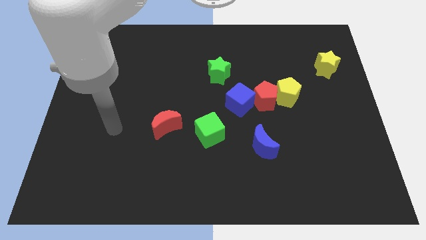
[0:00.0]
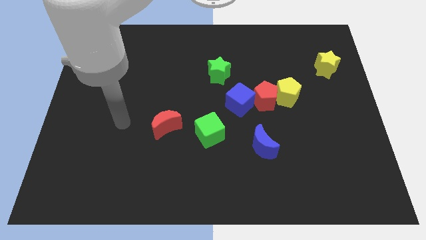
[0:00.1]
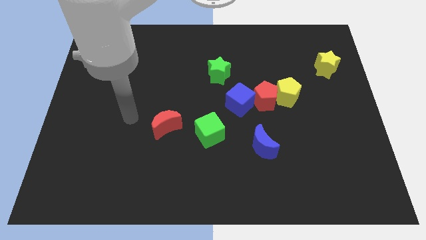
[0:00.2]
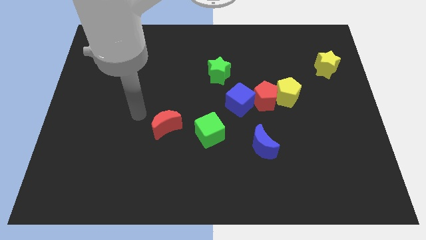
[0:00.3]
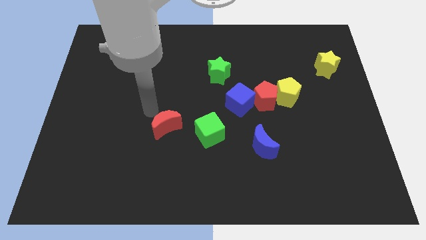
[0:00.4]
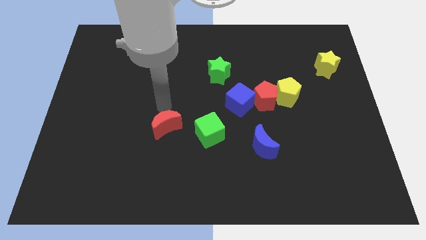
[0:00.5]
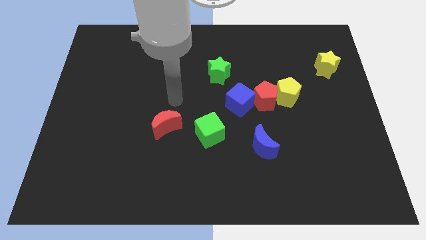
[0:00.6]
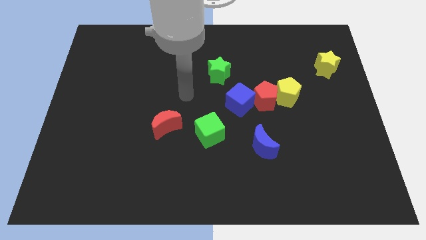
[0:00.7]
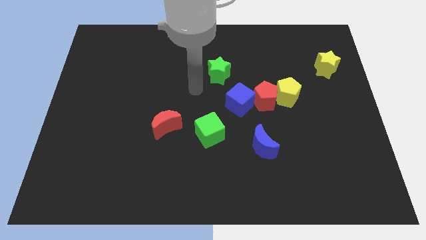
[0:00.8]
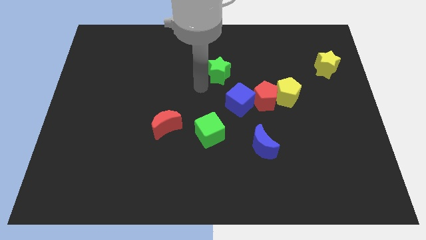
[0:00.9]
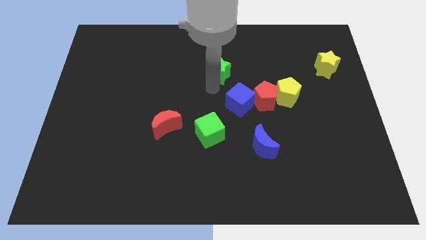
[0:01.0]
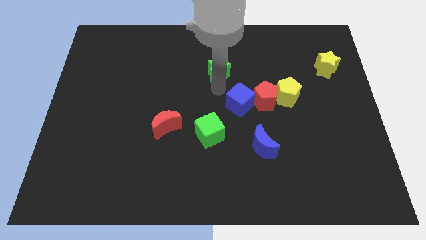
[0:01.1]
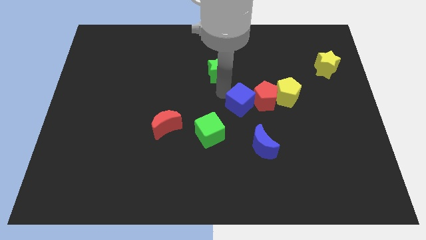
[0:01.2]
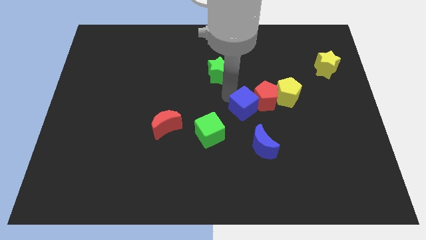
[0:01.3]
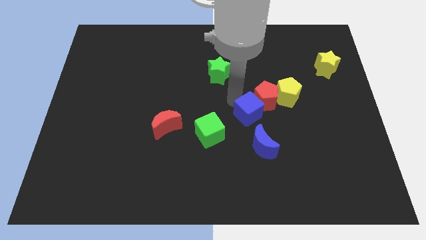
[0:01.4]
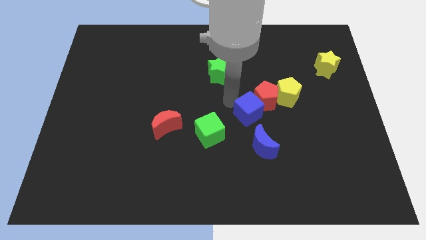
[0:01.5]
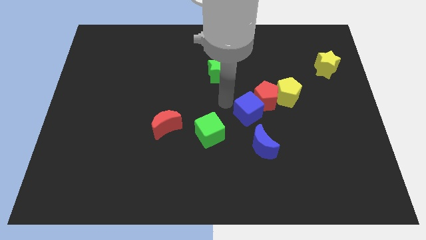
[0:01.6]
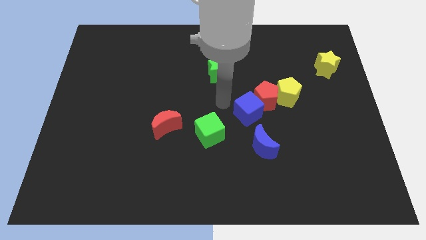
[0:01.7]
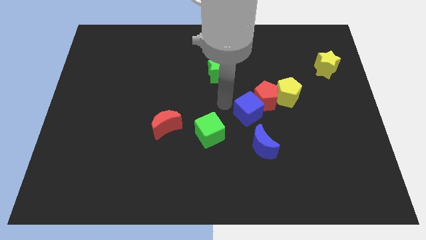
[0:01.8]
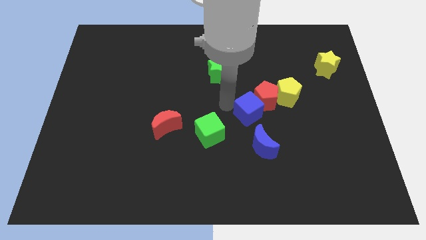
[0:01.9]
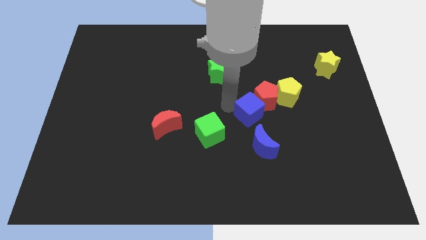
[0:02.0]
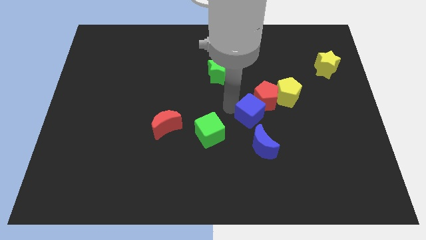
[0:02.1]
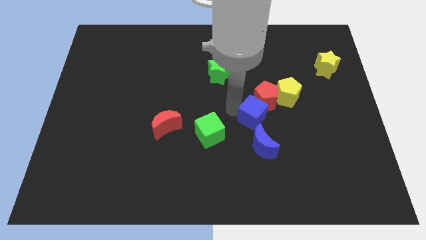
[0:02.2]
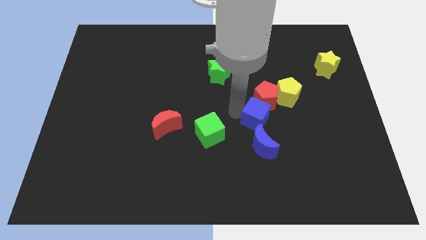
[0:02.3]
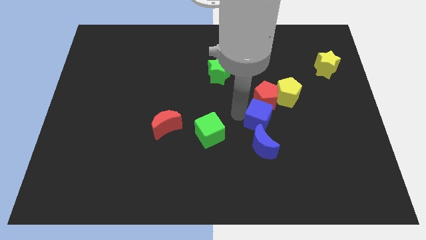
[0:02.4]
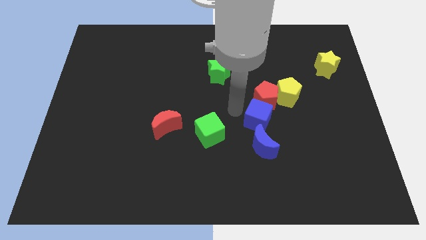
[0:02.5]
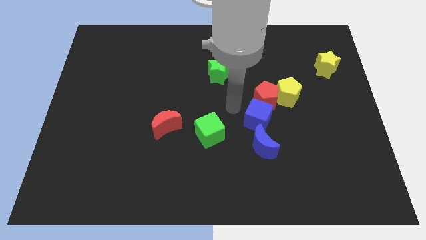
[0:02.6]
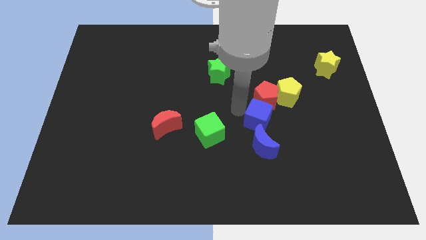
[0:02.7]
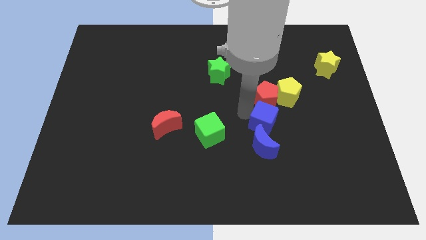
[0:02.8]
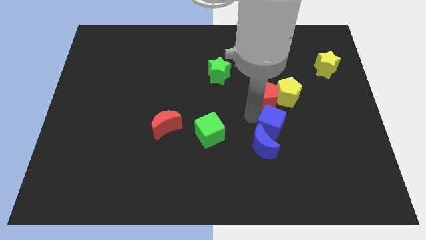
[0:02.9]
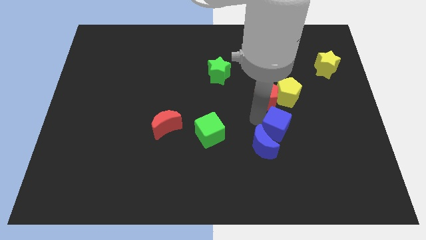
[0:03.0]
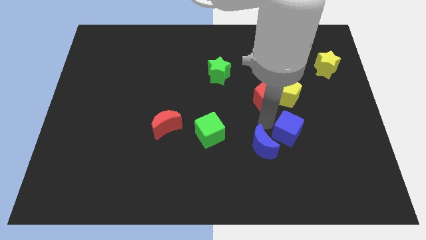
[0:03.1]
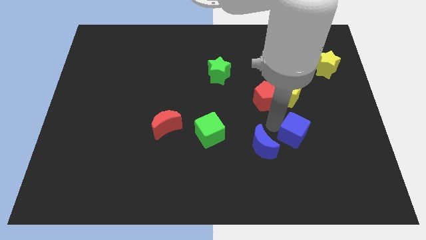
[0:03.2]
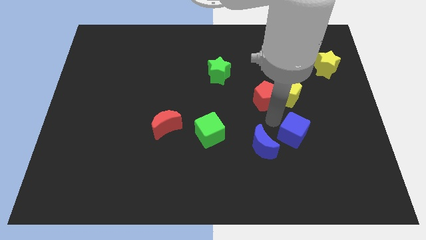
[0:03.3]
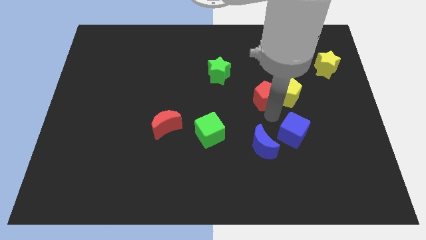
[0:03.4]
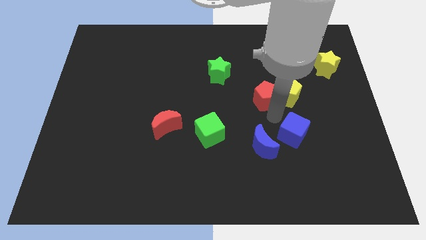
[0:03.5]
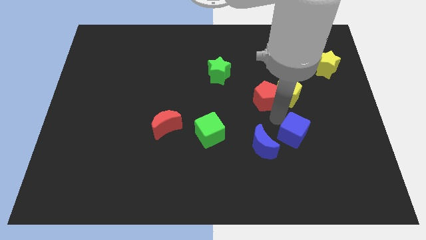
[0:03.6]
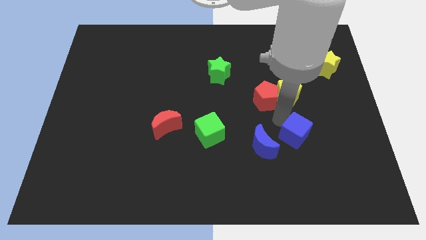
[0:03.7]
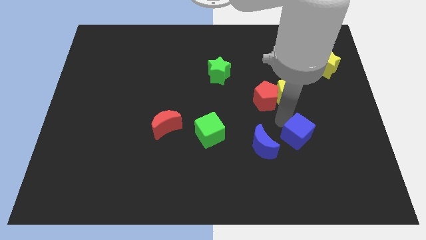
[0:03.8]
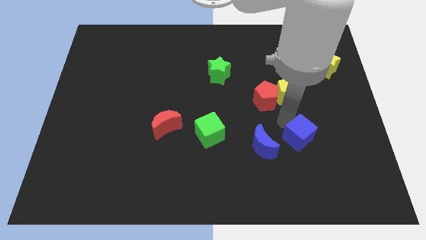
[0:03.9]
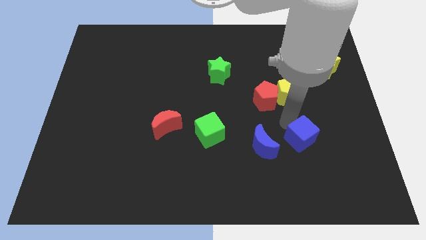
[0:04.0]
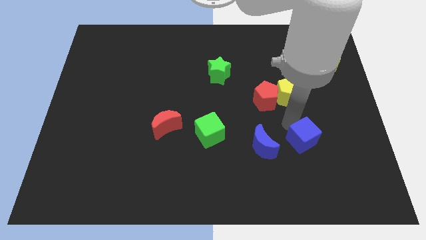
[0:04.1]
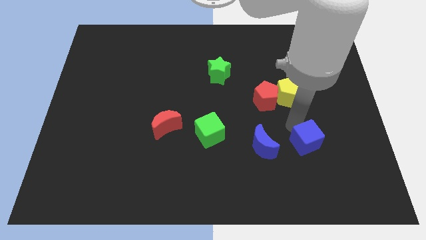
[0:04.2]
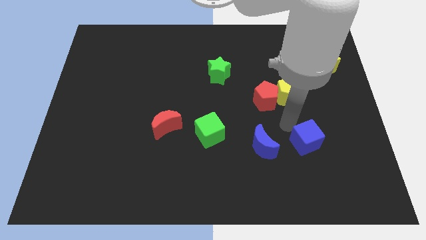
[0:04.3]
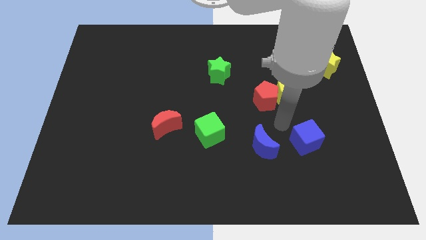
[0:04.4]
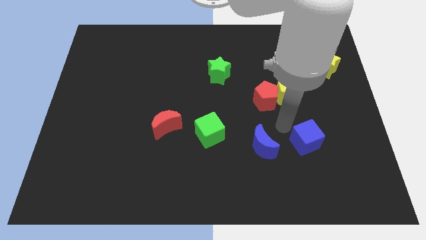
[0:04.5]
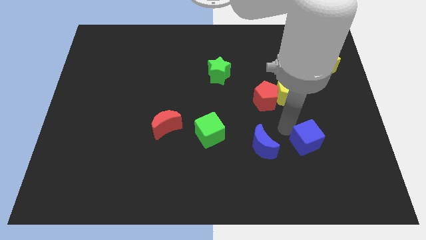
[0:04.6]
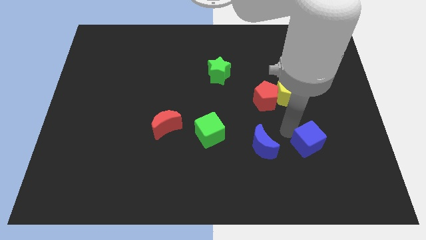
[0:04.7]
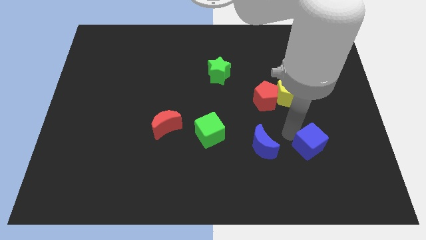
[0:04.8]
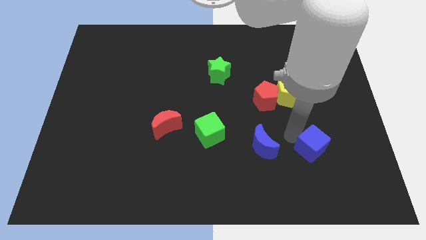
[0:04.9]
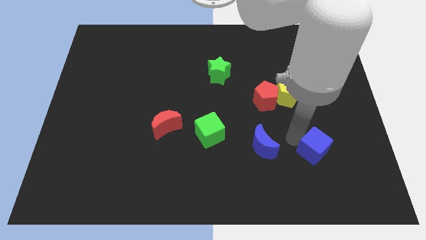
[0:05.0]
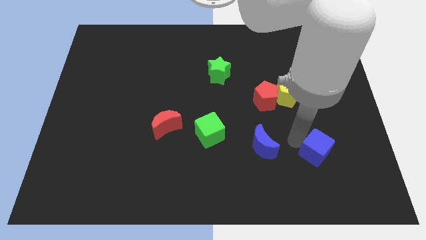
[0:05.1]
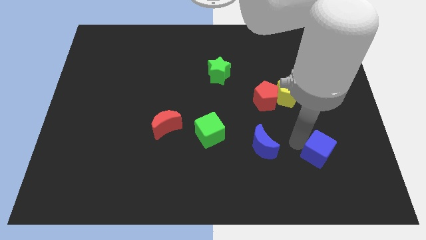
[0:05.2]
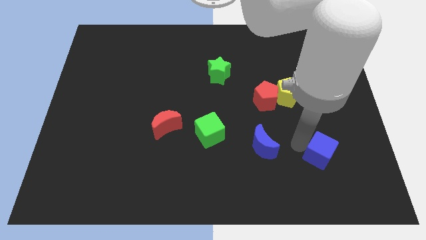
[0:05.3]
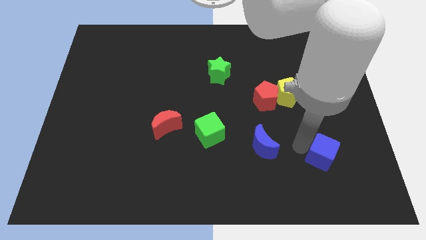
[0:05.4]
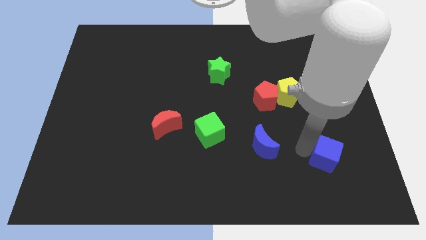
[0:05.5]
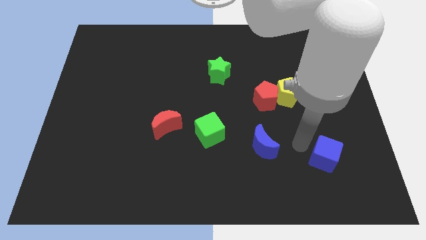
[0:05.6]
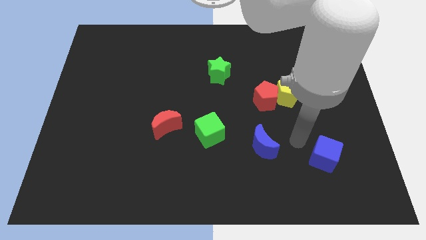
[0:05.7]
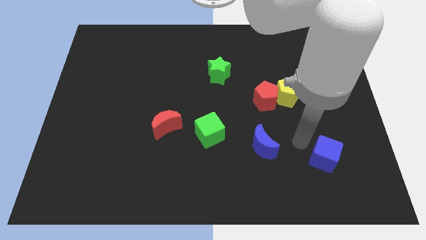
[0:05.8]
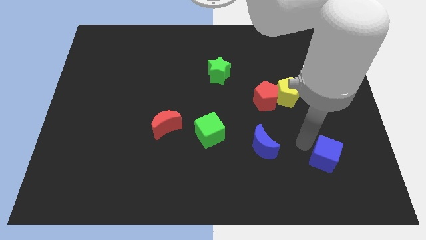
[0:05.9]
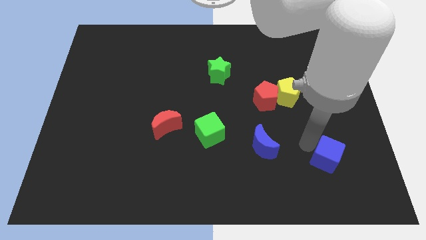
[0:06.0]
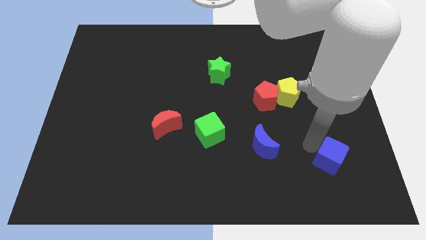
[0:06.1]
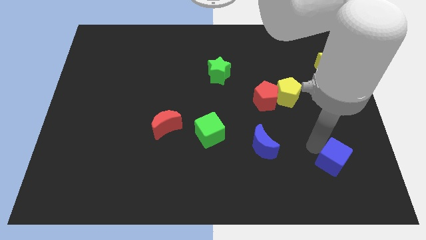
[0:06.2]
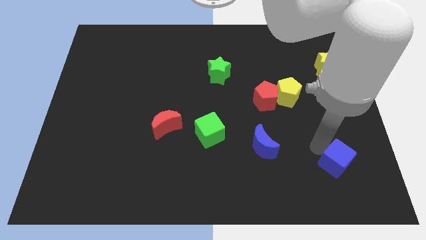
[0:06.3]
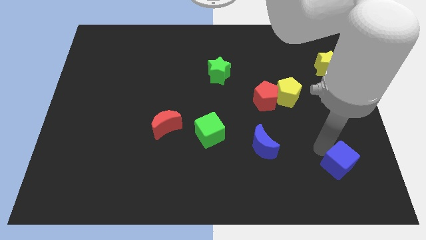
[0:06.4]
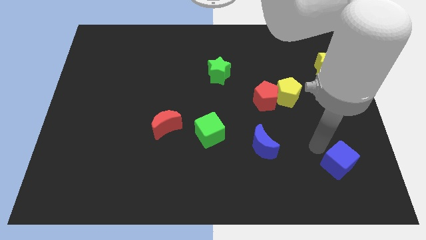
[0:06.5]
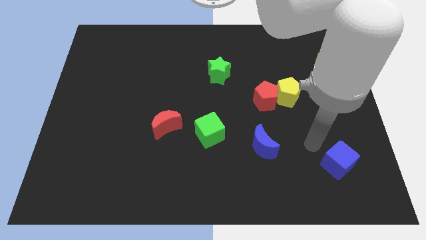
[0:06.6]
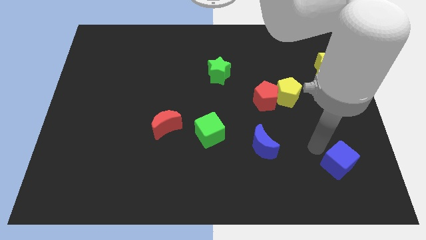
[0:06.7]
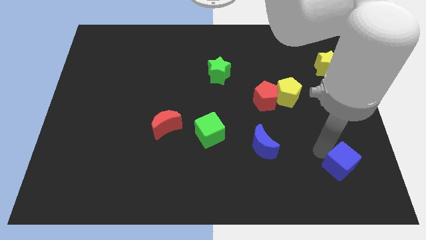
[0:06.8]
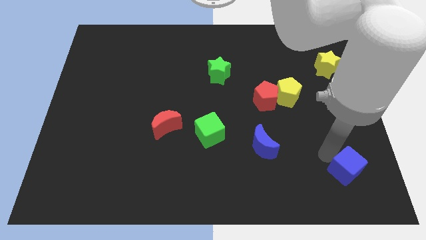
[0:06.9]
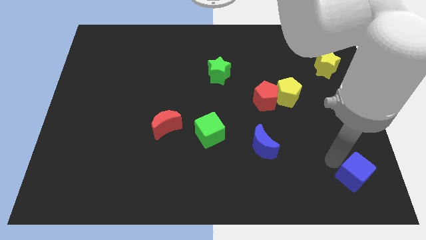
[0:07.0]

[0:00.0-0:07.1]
push the blue cube to the bottom right
